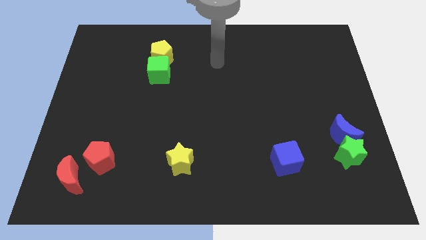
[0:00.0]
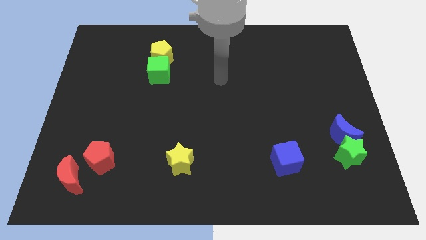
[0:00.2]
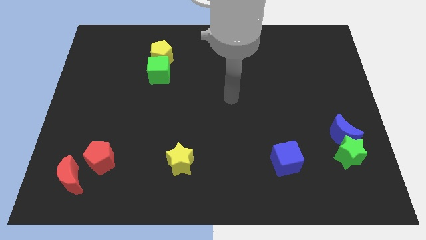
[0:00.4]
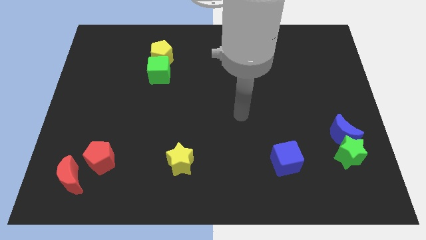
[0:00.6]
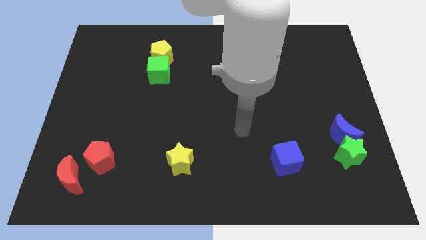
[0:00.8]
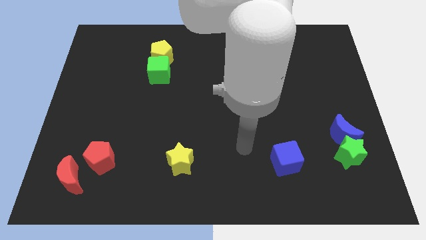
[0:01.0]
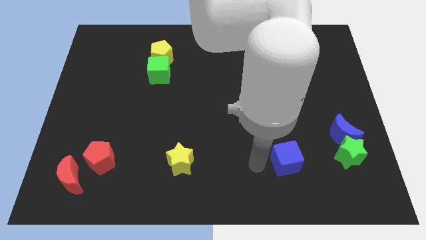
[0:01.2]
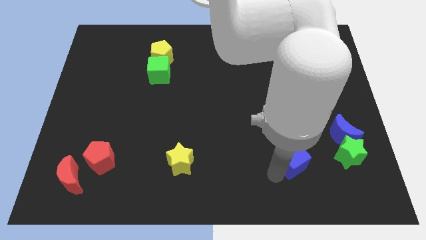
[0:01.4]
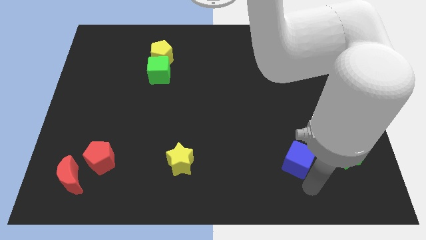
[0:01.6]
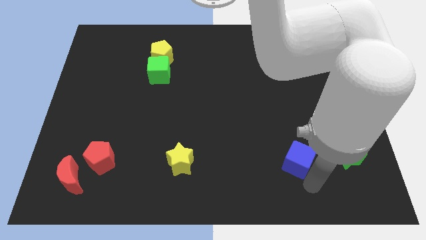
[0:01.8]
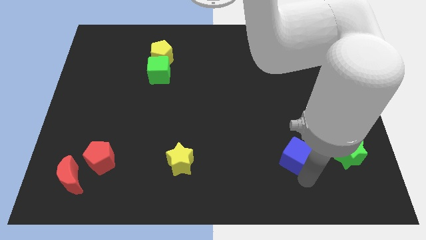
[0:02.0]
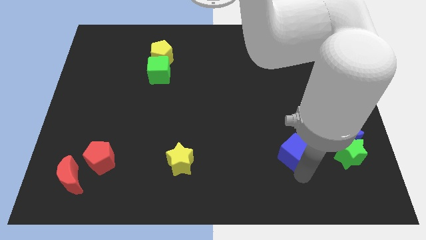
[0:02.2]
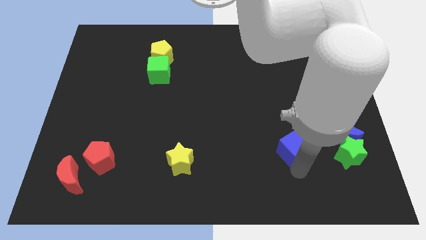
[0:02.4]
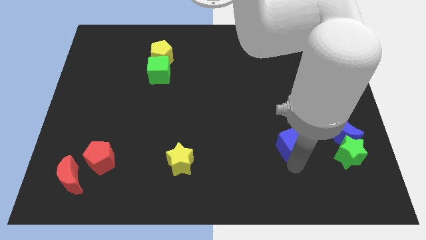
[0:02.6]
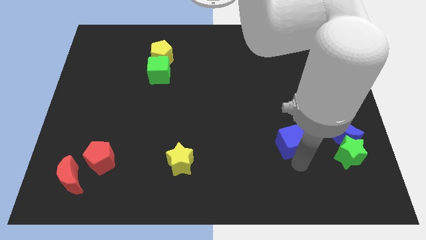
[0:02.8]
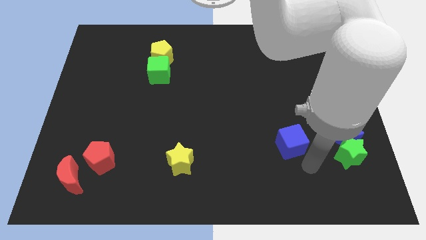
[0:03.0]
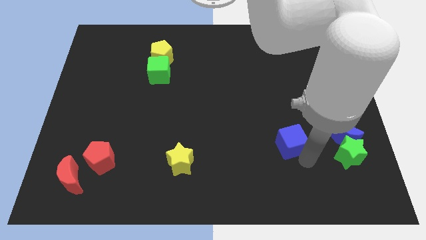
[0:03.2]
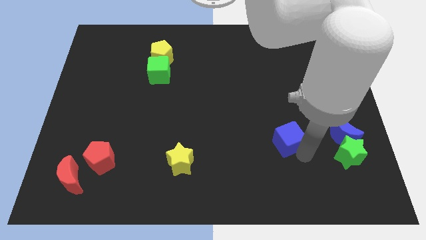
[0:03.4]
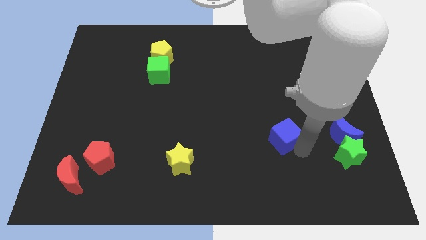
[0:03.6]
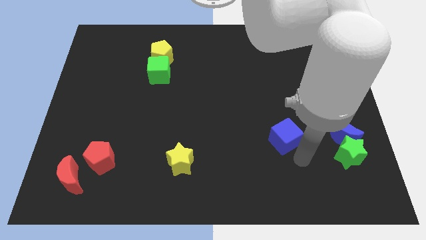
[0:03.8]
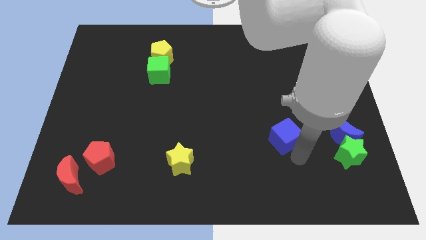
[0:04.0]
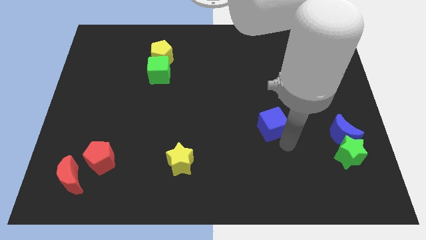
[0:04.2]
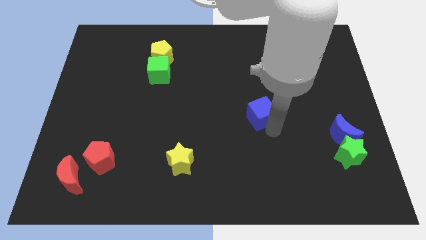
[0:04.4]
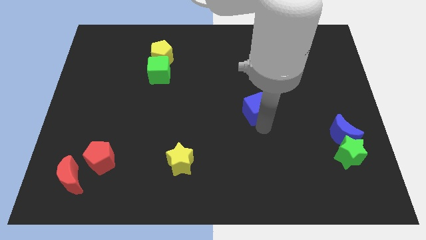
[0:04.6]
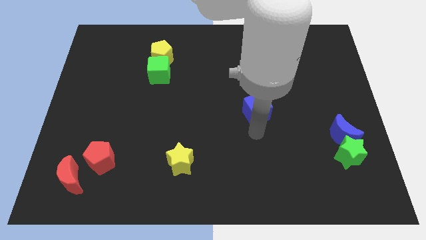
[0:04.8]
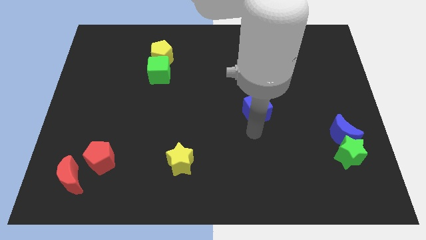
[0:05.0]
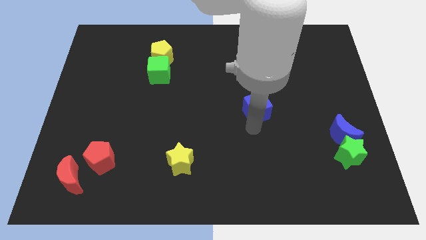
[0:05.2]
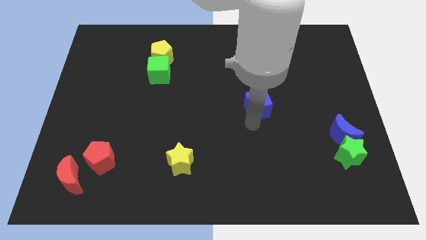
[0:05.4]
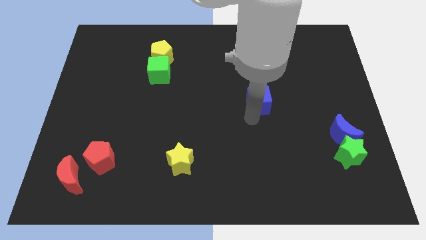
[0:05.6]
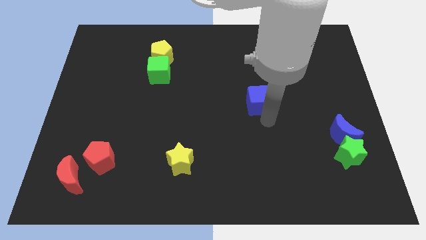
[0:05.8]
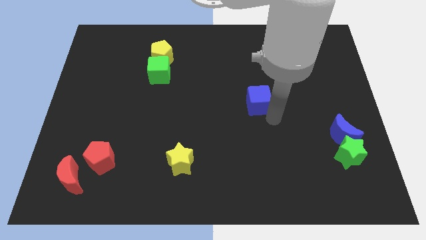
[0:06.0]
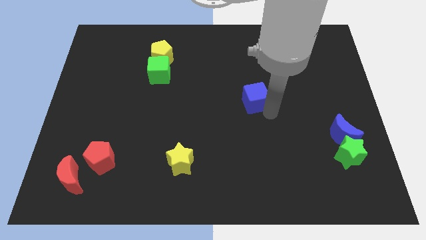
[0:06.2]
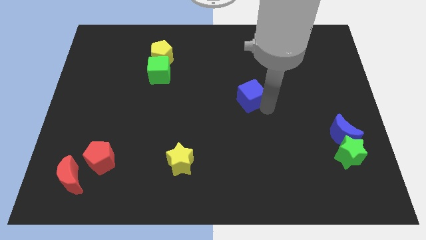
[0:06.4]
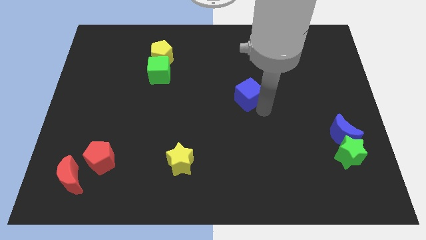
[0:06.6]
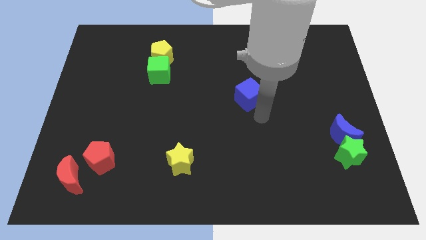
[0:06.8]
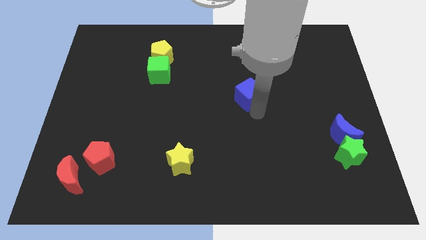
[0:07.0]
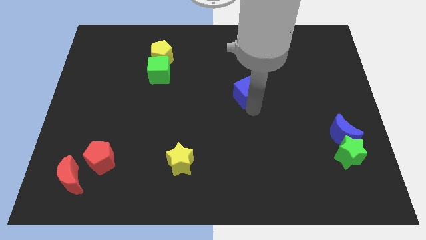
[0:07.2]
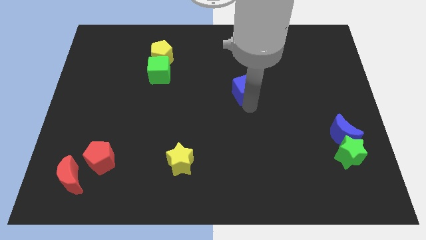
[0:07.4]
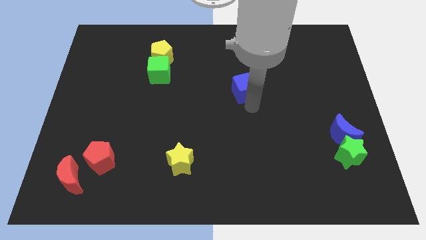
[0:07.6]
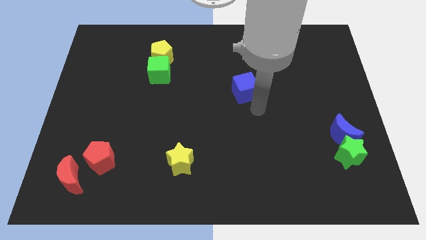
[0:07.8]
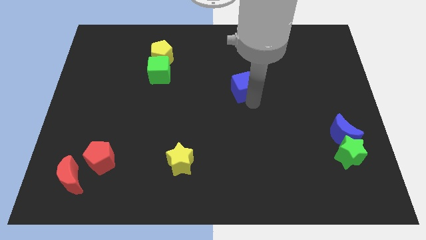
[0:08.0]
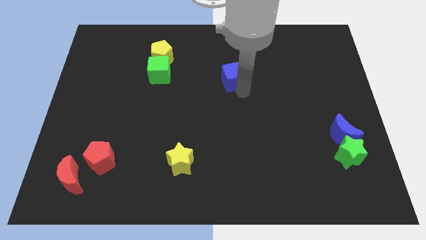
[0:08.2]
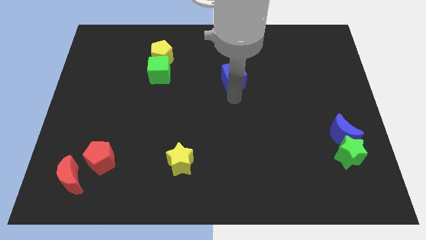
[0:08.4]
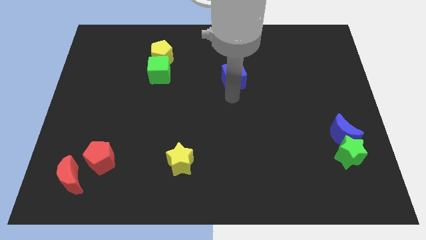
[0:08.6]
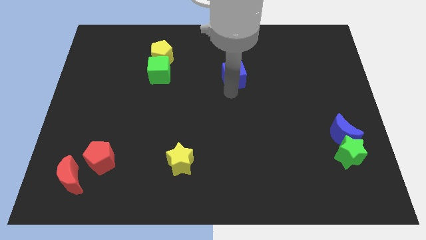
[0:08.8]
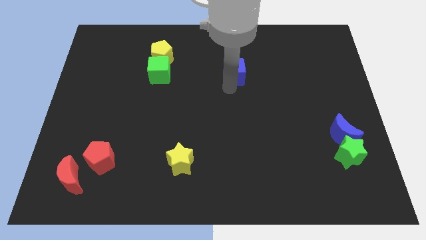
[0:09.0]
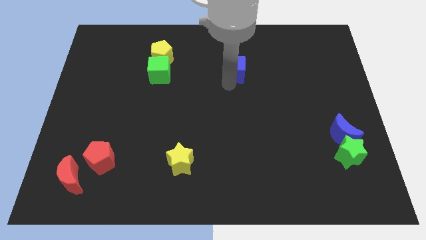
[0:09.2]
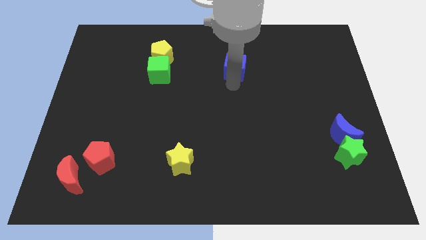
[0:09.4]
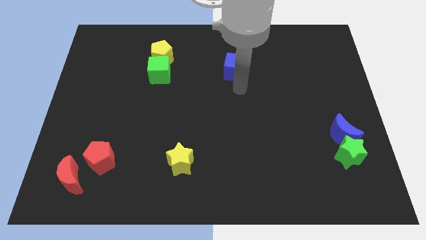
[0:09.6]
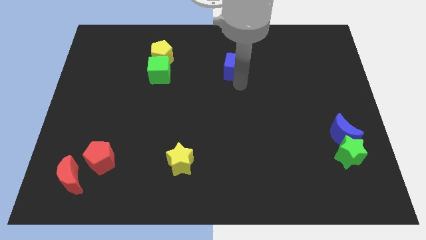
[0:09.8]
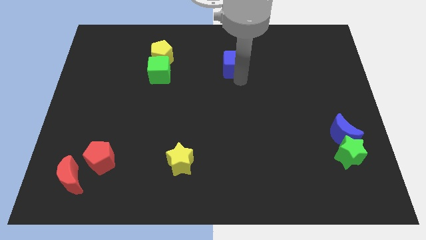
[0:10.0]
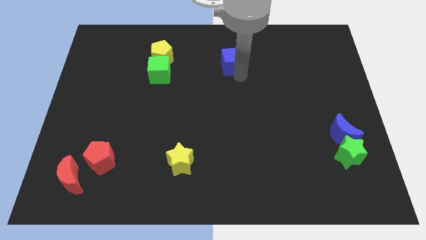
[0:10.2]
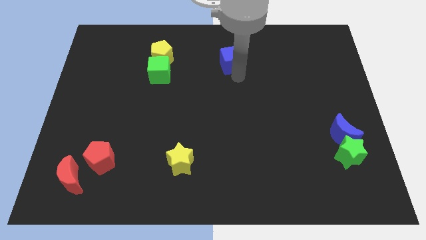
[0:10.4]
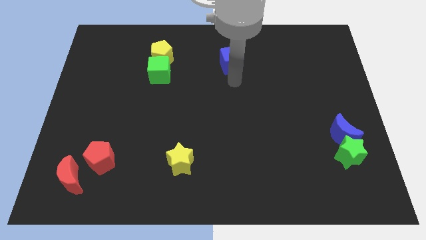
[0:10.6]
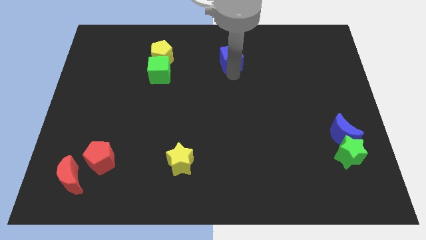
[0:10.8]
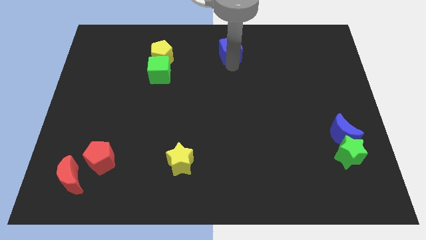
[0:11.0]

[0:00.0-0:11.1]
push the blue cube to the towards your base
